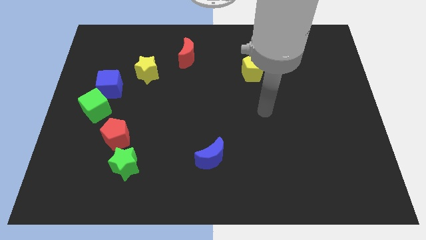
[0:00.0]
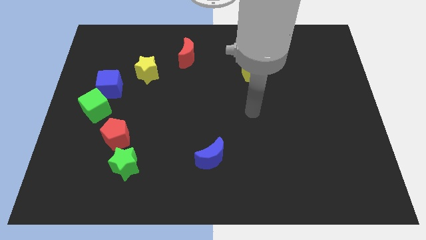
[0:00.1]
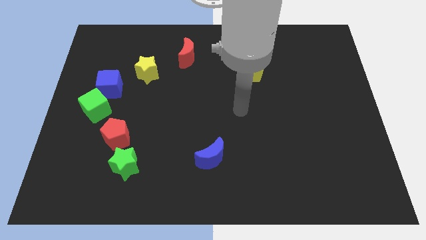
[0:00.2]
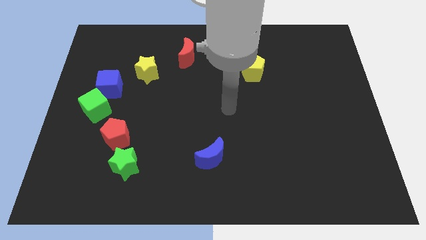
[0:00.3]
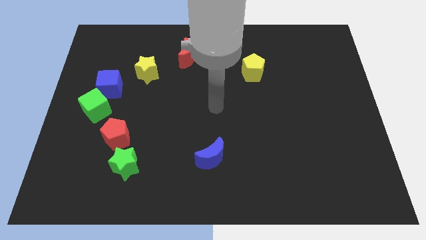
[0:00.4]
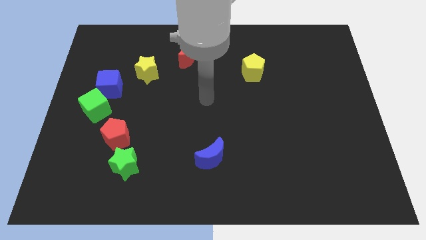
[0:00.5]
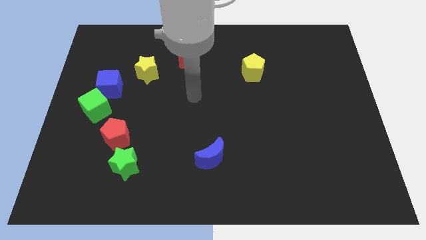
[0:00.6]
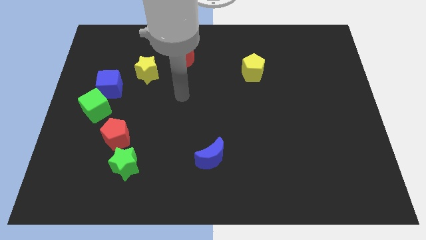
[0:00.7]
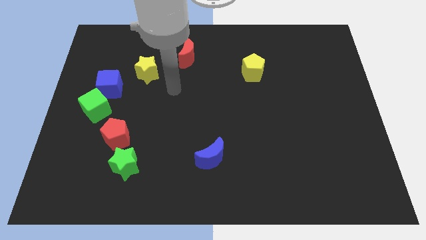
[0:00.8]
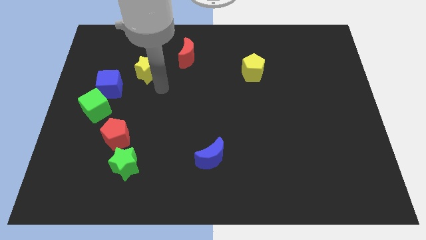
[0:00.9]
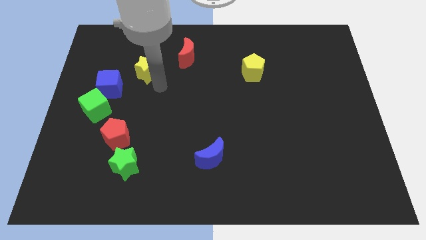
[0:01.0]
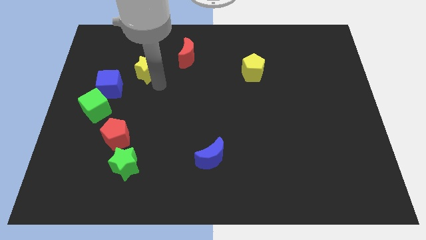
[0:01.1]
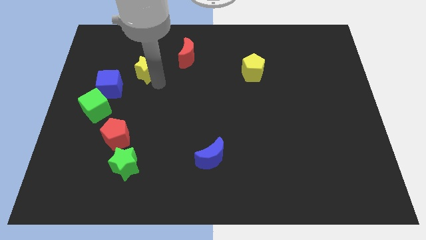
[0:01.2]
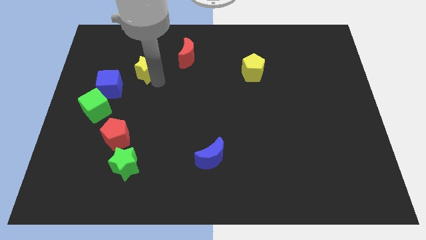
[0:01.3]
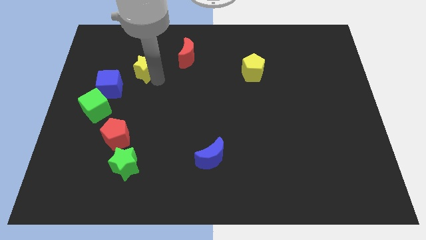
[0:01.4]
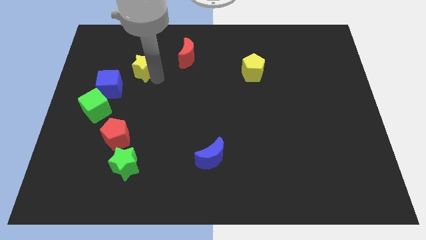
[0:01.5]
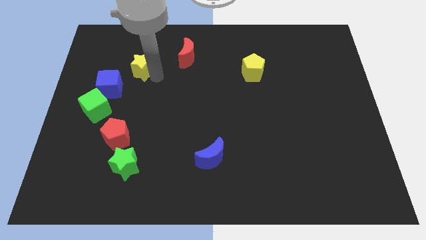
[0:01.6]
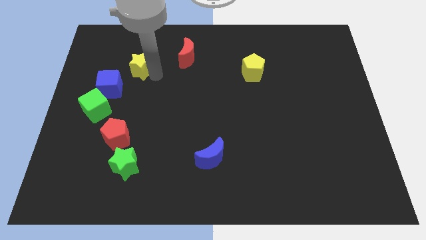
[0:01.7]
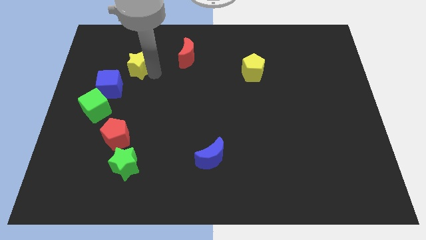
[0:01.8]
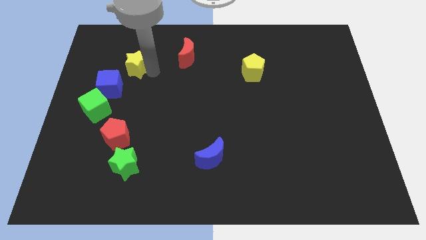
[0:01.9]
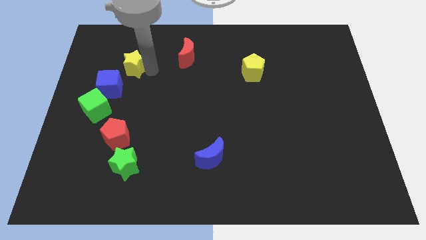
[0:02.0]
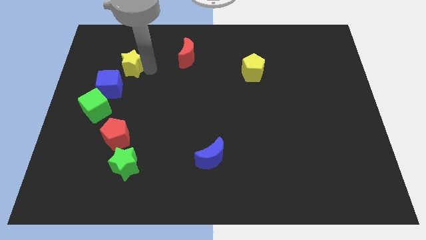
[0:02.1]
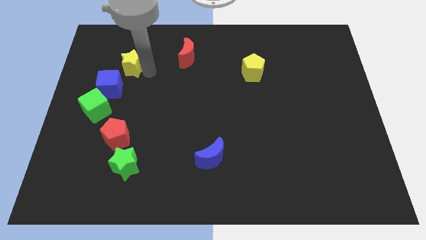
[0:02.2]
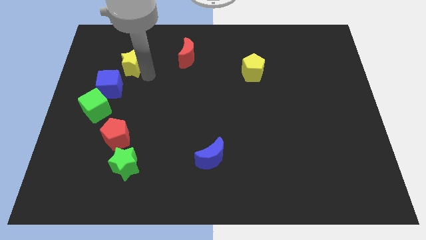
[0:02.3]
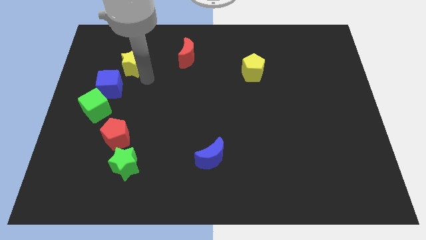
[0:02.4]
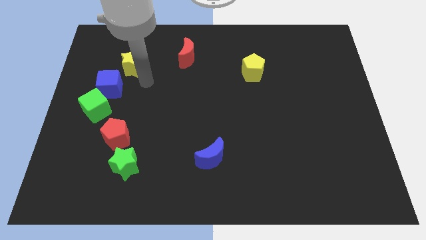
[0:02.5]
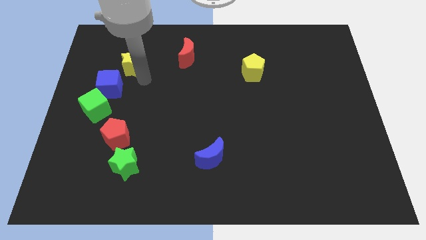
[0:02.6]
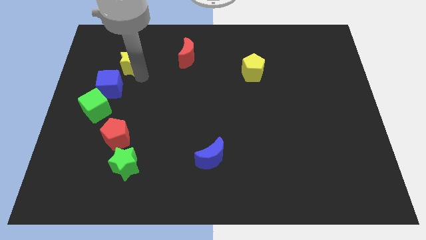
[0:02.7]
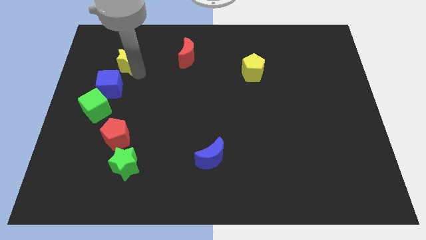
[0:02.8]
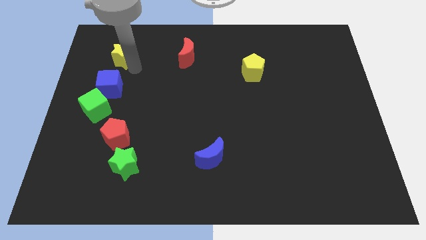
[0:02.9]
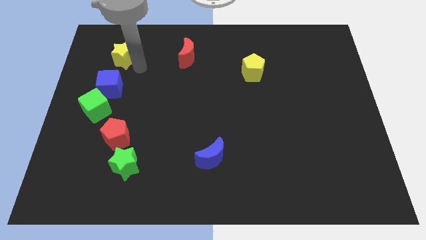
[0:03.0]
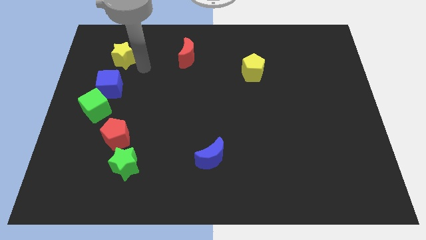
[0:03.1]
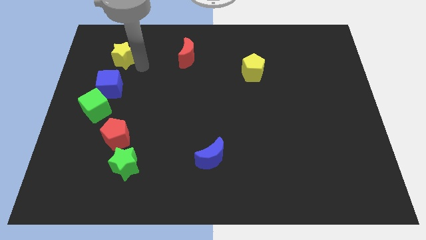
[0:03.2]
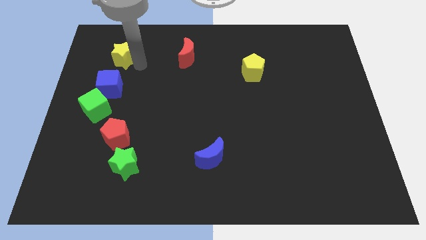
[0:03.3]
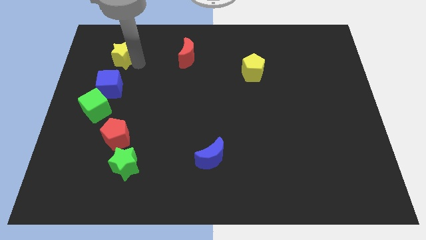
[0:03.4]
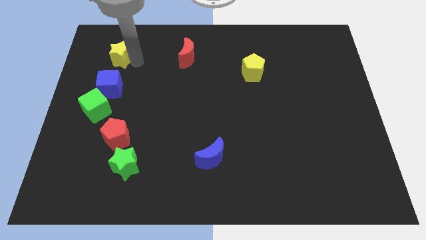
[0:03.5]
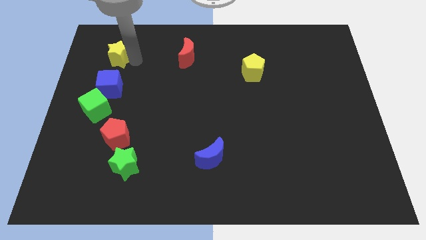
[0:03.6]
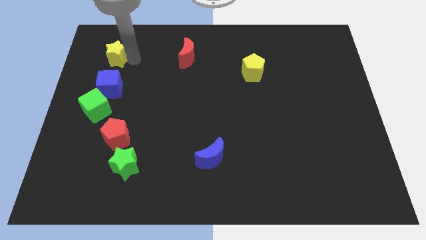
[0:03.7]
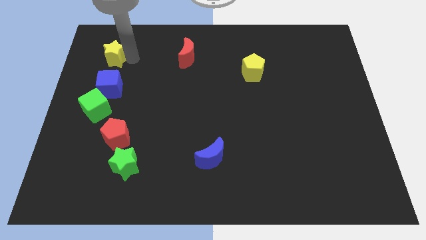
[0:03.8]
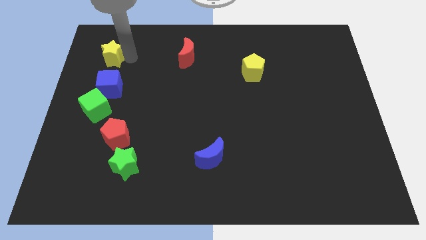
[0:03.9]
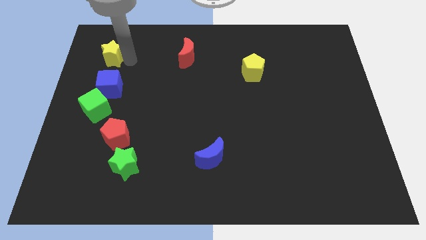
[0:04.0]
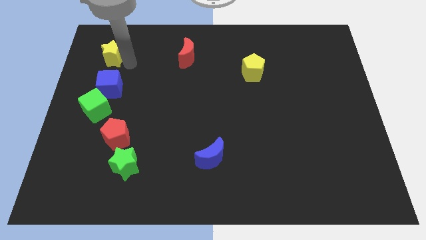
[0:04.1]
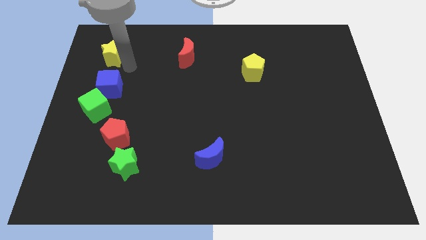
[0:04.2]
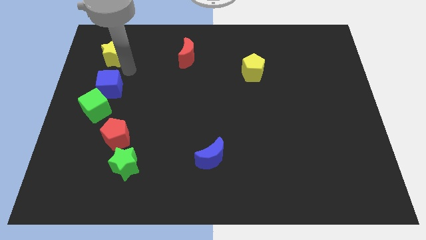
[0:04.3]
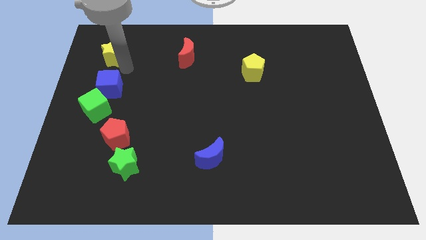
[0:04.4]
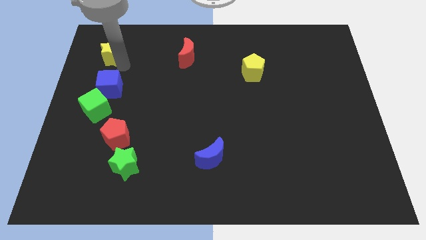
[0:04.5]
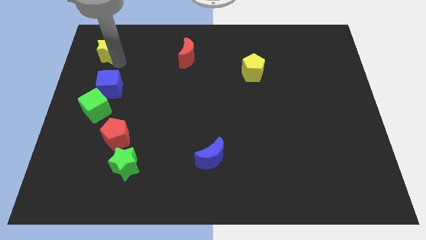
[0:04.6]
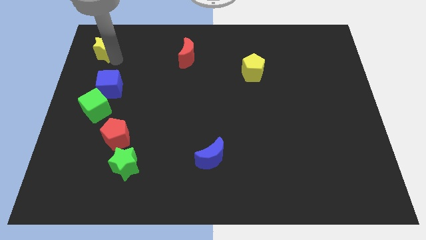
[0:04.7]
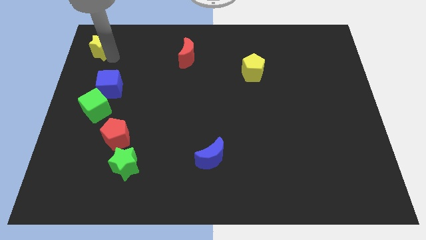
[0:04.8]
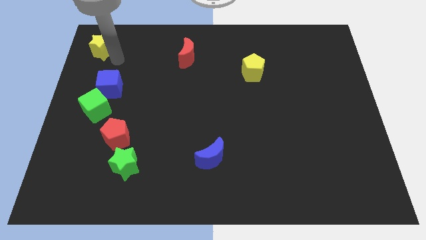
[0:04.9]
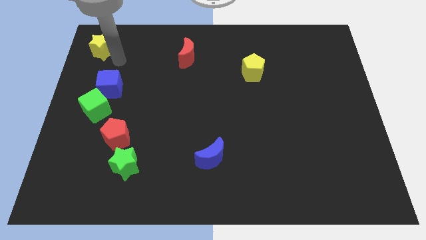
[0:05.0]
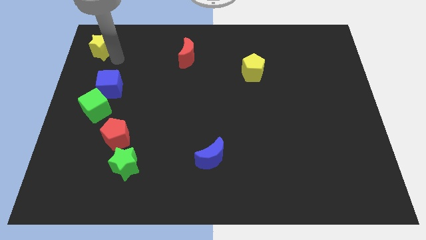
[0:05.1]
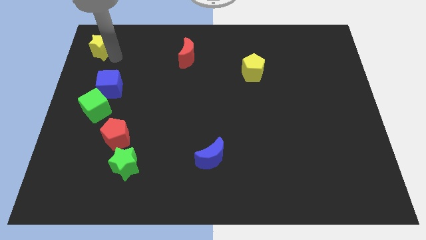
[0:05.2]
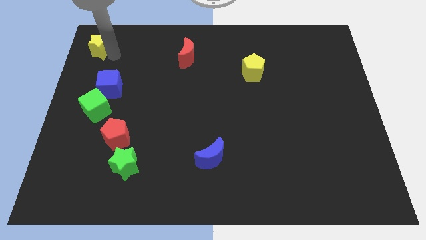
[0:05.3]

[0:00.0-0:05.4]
slide the yellow star to the top left corner
